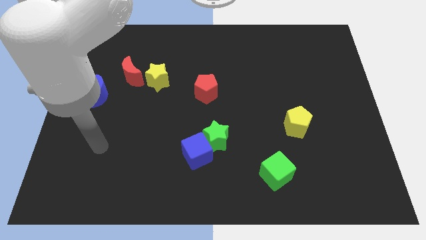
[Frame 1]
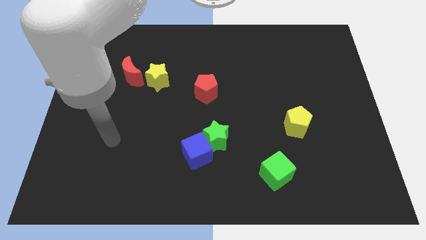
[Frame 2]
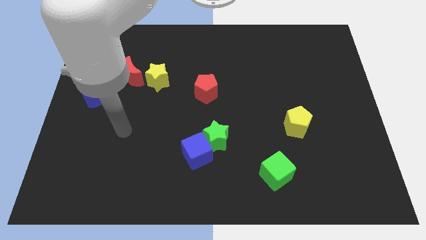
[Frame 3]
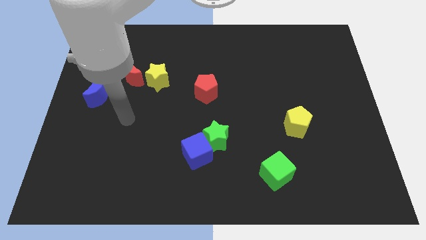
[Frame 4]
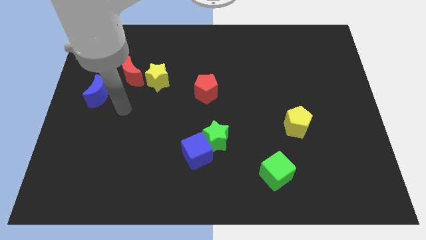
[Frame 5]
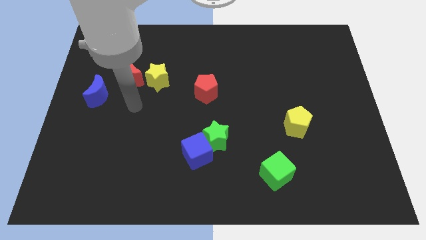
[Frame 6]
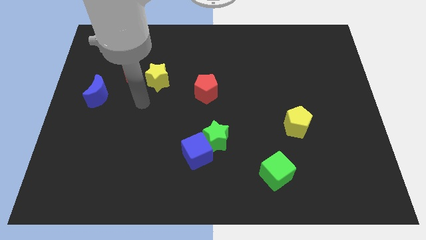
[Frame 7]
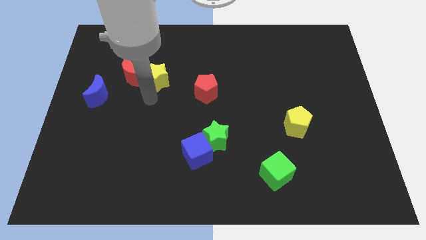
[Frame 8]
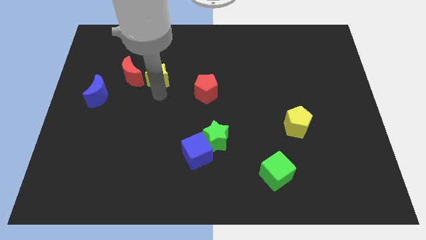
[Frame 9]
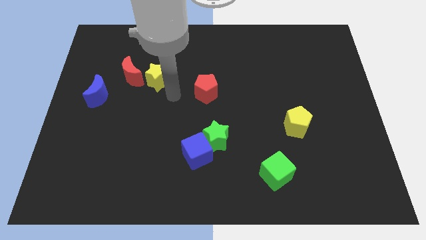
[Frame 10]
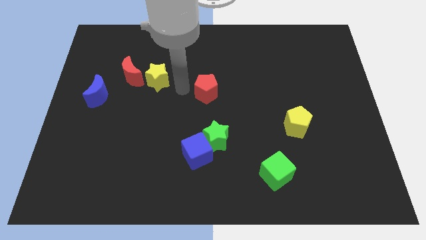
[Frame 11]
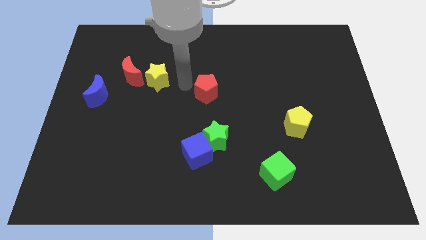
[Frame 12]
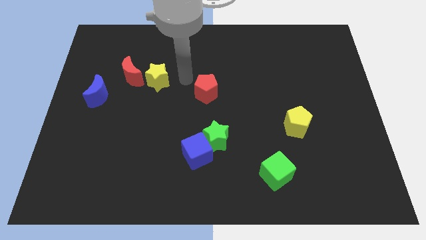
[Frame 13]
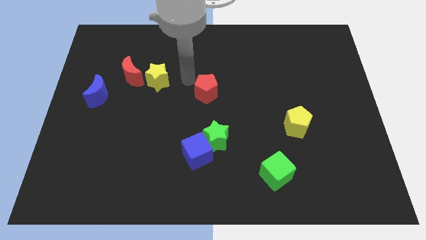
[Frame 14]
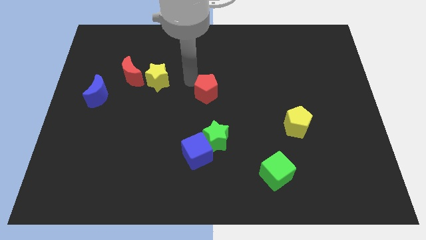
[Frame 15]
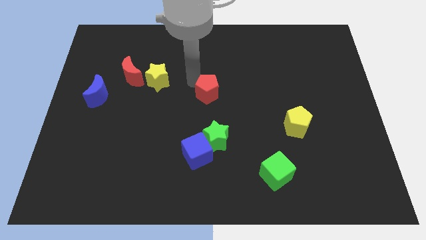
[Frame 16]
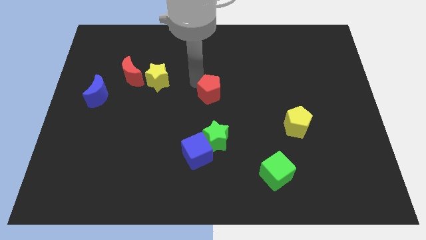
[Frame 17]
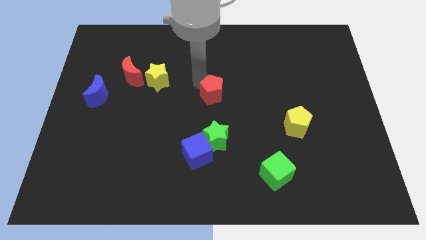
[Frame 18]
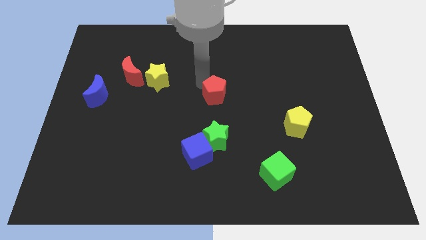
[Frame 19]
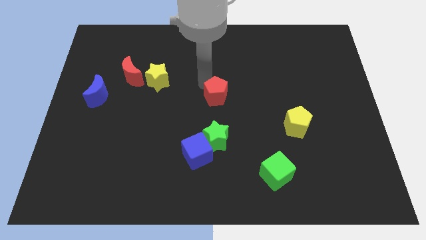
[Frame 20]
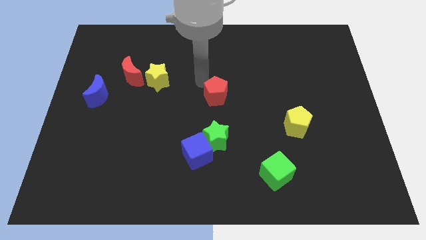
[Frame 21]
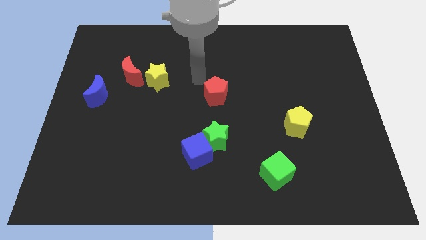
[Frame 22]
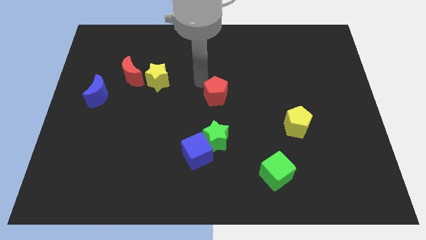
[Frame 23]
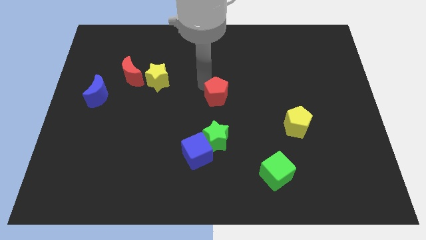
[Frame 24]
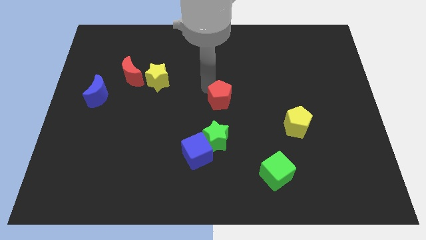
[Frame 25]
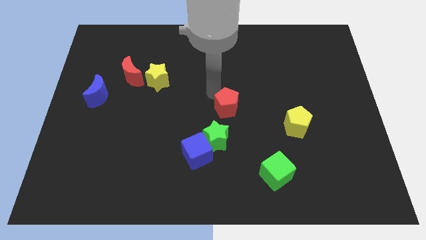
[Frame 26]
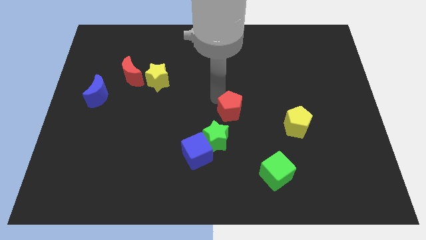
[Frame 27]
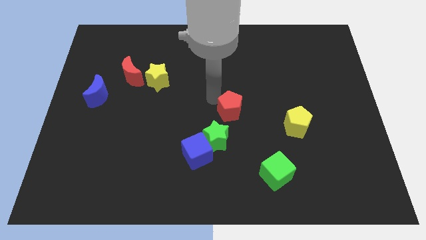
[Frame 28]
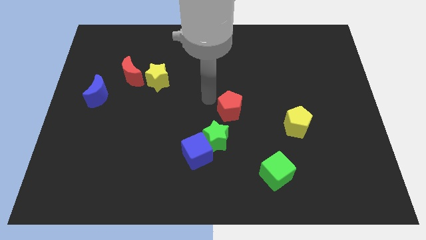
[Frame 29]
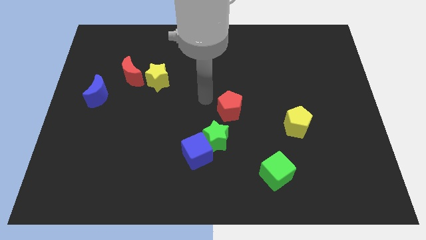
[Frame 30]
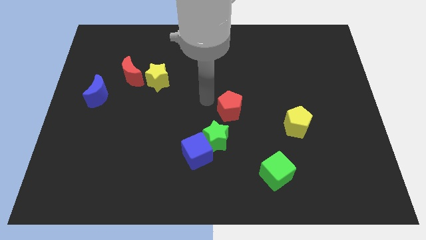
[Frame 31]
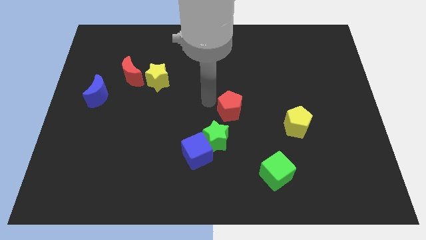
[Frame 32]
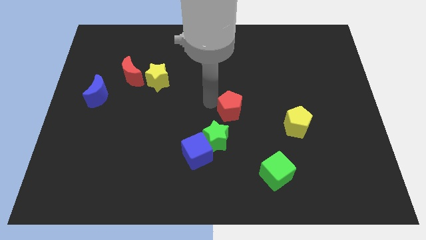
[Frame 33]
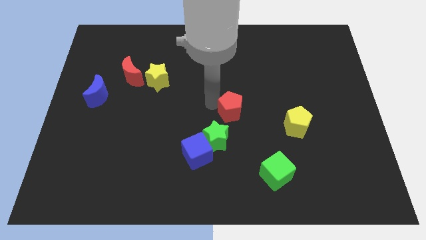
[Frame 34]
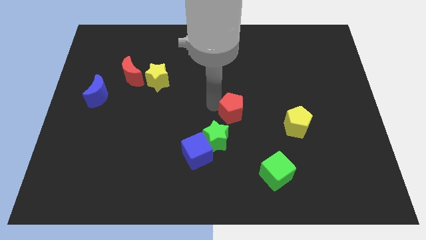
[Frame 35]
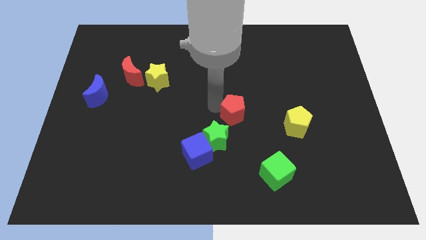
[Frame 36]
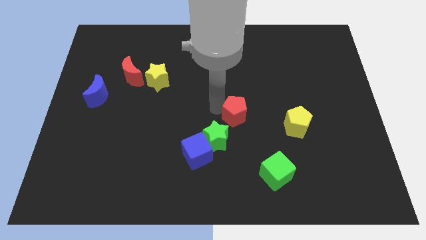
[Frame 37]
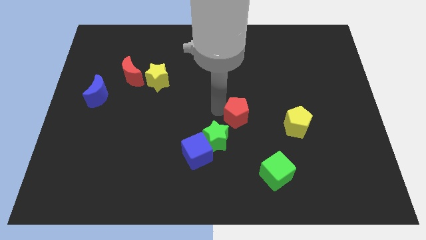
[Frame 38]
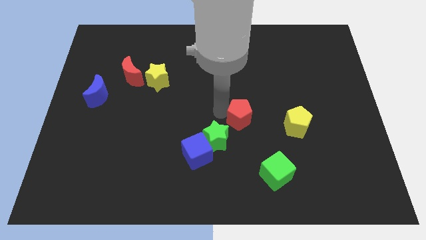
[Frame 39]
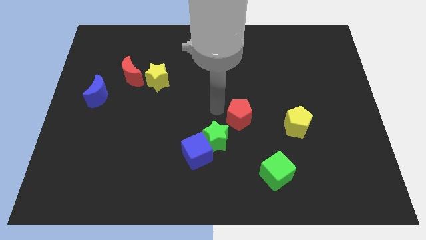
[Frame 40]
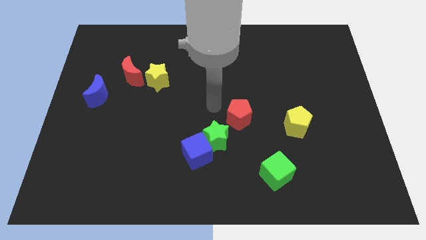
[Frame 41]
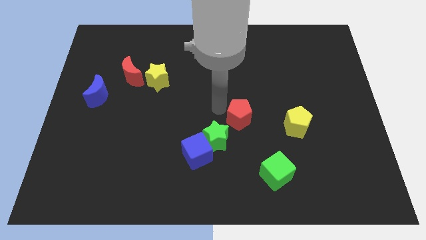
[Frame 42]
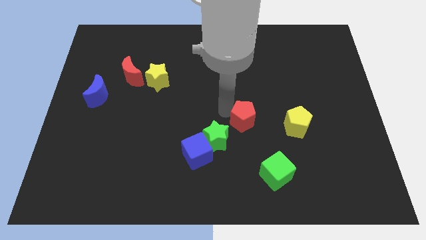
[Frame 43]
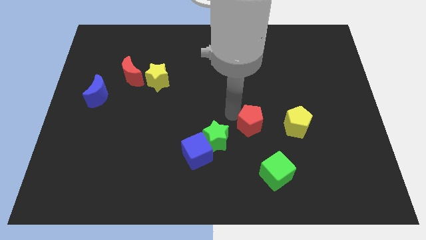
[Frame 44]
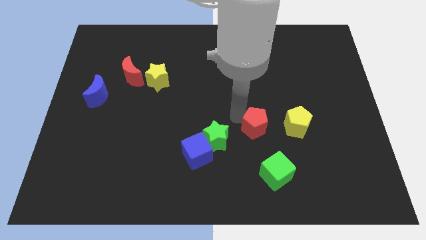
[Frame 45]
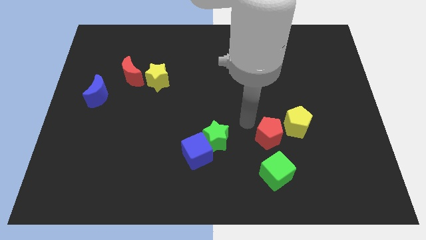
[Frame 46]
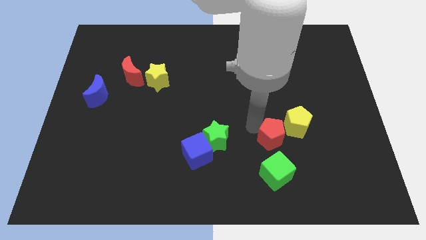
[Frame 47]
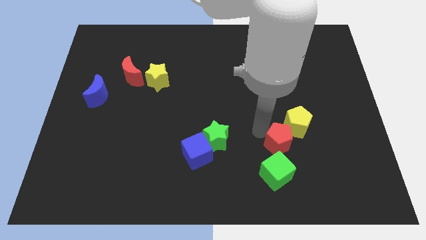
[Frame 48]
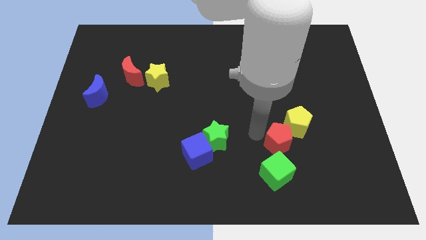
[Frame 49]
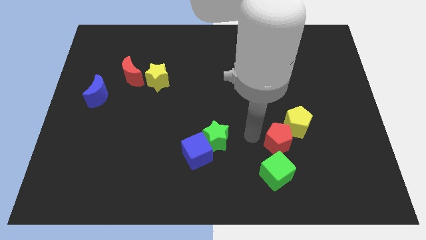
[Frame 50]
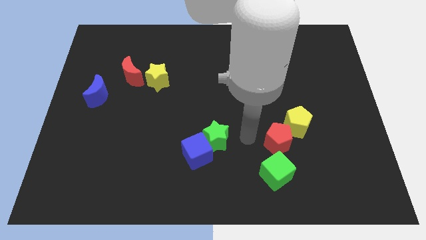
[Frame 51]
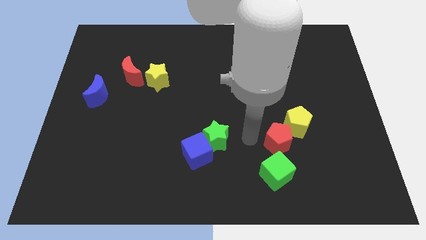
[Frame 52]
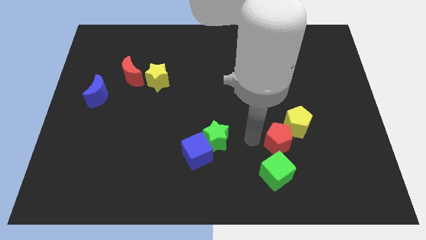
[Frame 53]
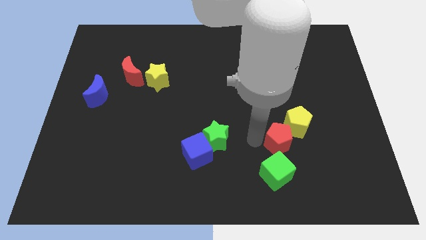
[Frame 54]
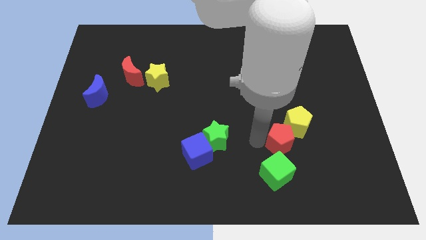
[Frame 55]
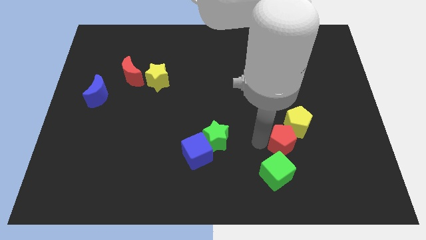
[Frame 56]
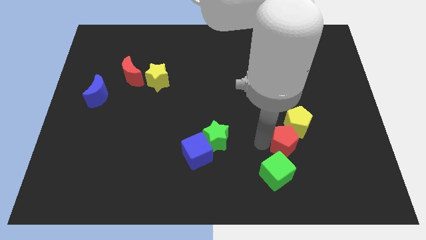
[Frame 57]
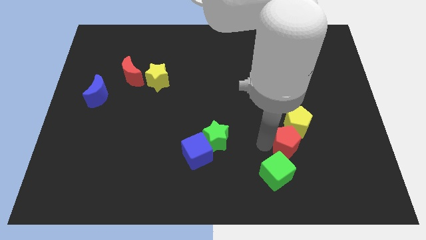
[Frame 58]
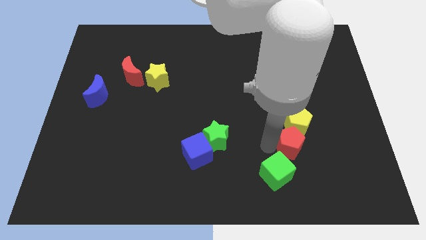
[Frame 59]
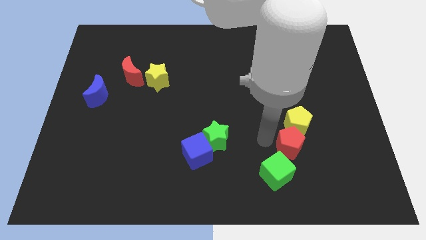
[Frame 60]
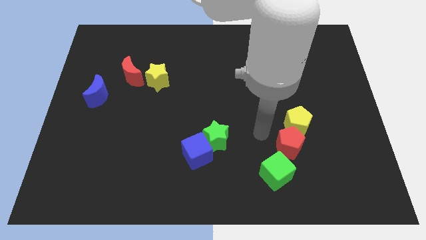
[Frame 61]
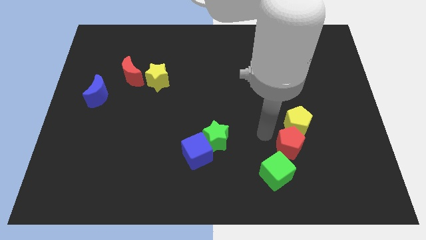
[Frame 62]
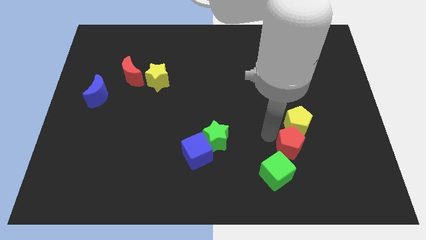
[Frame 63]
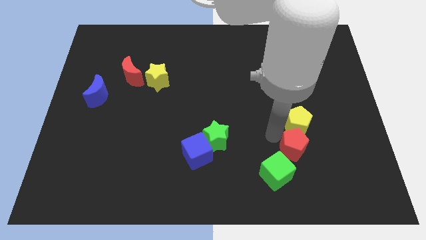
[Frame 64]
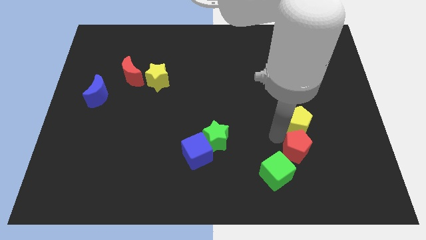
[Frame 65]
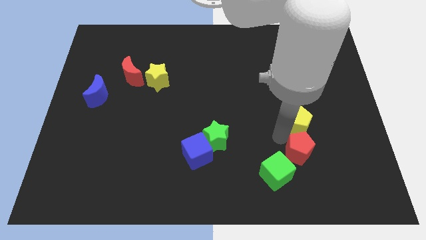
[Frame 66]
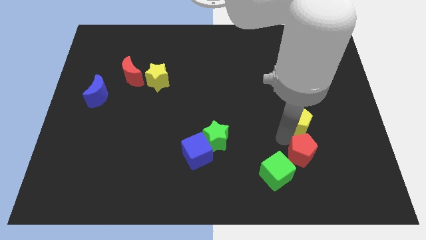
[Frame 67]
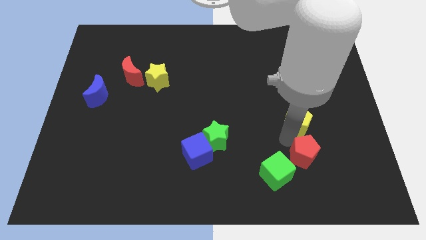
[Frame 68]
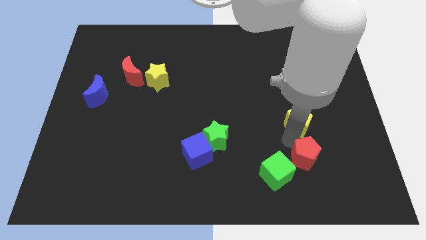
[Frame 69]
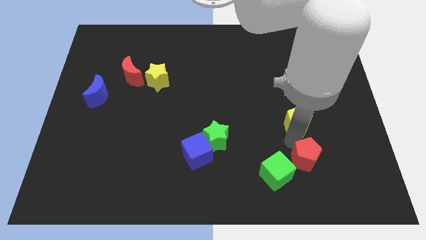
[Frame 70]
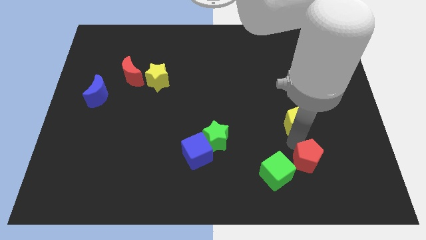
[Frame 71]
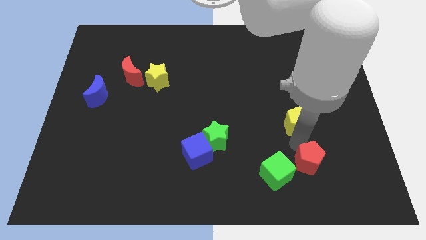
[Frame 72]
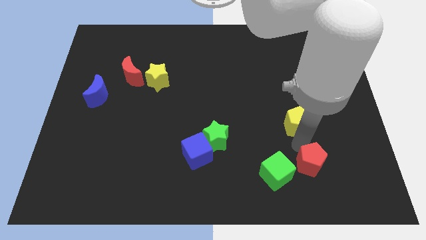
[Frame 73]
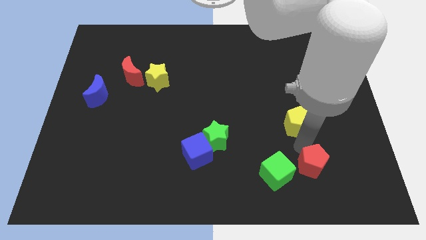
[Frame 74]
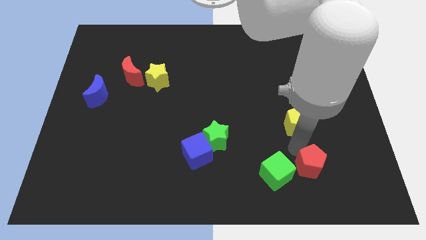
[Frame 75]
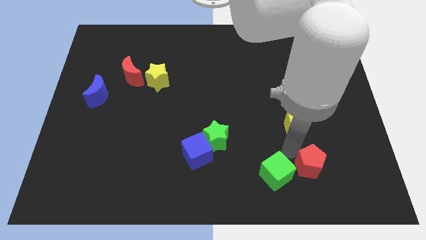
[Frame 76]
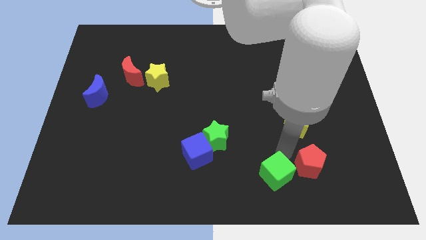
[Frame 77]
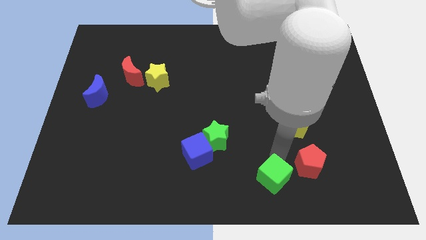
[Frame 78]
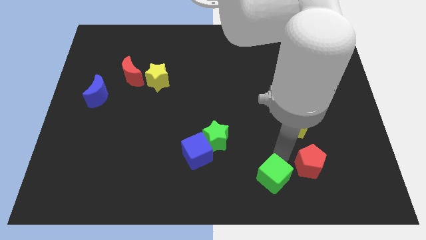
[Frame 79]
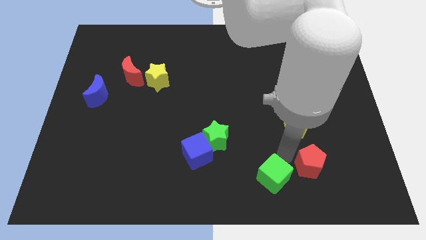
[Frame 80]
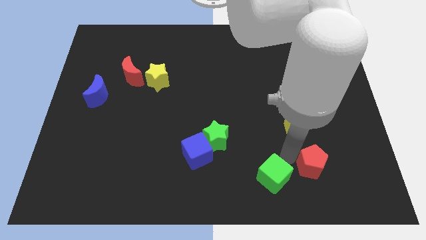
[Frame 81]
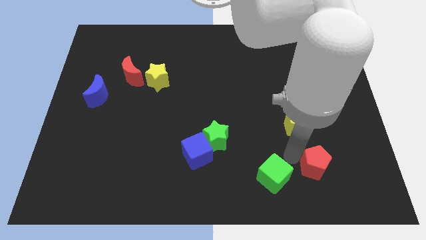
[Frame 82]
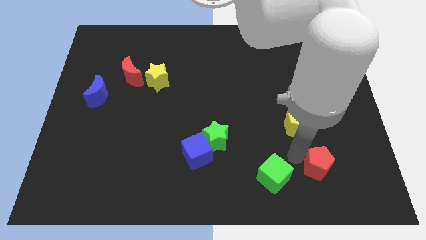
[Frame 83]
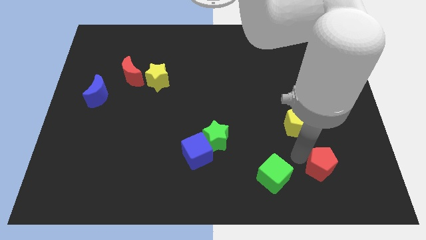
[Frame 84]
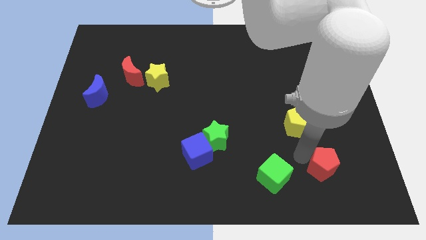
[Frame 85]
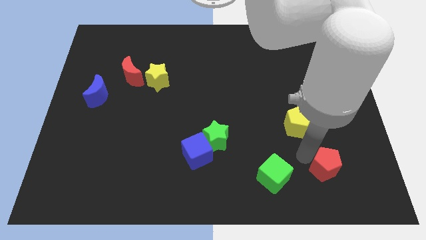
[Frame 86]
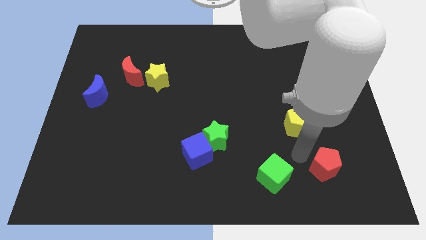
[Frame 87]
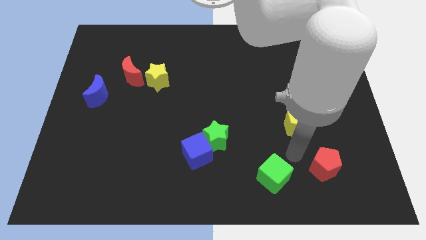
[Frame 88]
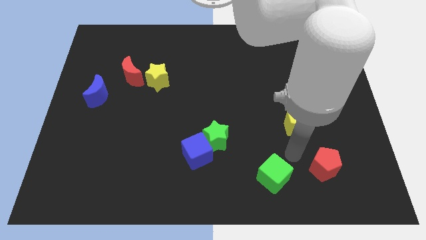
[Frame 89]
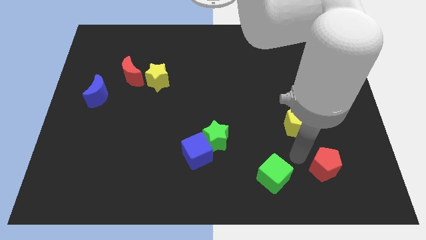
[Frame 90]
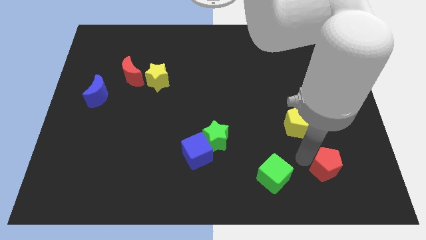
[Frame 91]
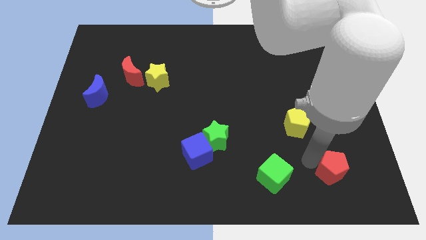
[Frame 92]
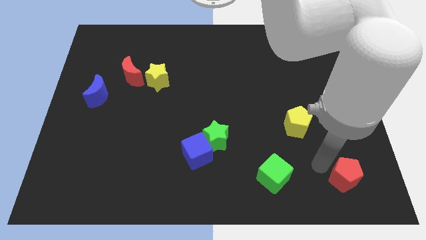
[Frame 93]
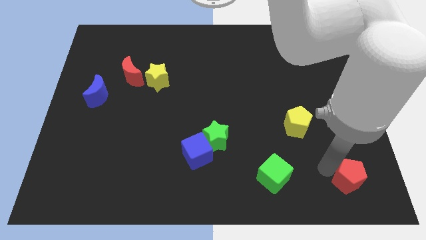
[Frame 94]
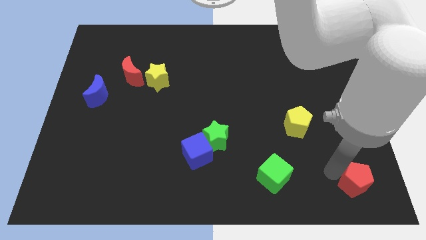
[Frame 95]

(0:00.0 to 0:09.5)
slide the red pentagon to the lower right corner
